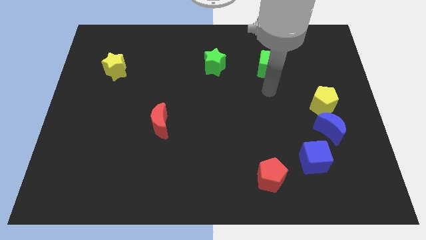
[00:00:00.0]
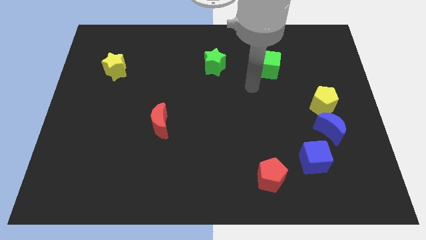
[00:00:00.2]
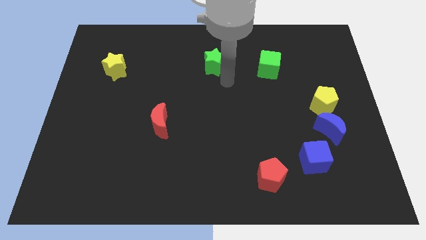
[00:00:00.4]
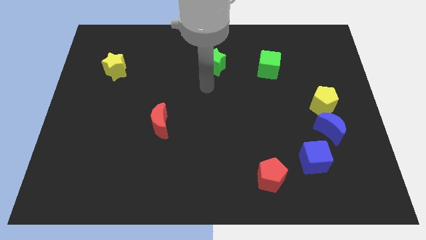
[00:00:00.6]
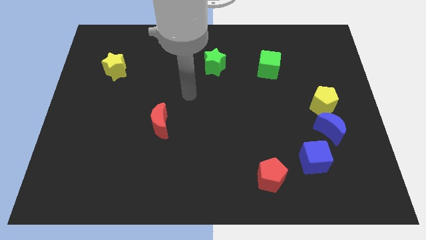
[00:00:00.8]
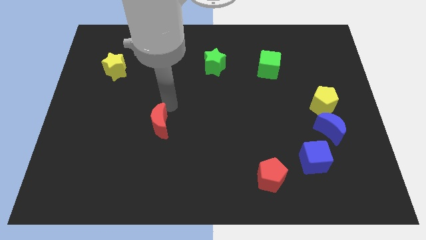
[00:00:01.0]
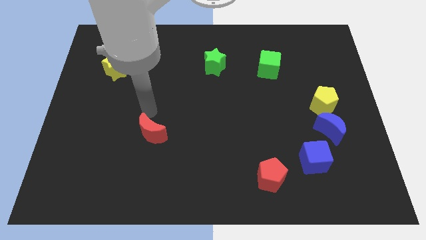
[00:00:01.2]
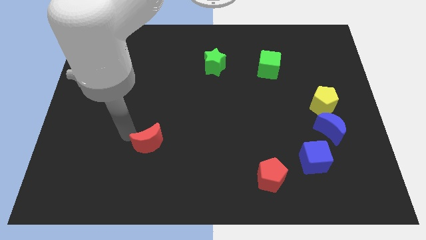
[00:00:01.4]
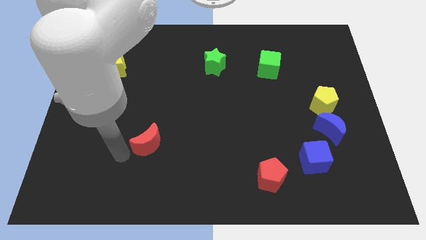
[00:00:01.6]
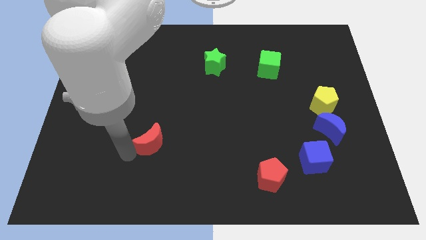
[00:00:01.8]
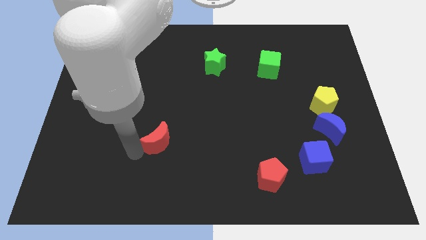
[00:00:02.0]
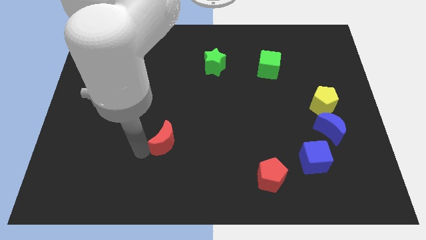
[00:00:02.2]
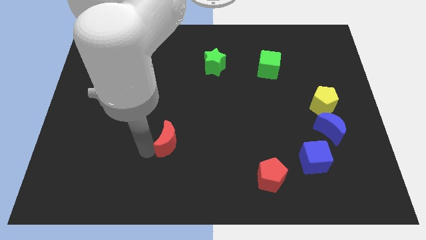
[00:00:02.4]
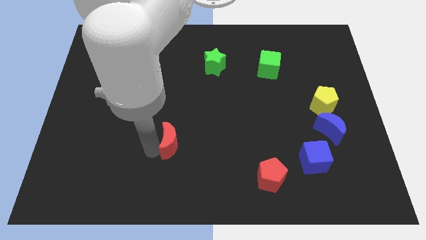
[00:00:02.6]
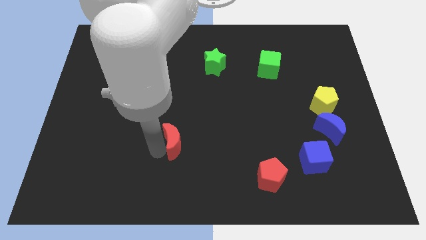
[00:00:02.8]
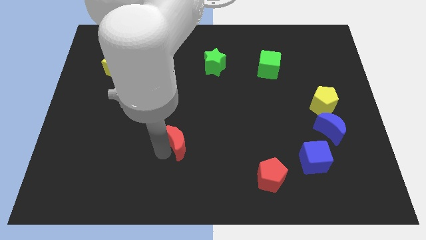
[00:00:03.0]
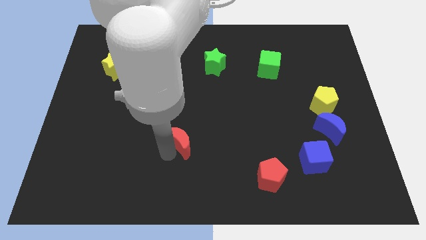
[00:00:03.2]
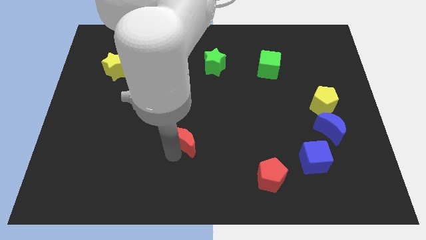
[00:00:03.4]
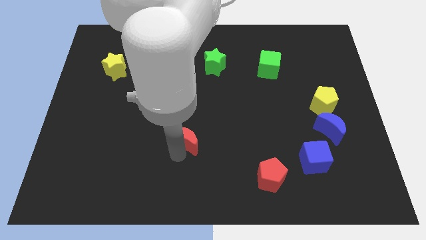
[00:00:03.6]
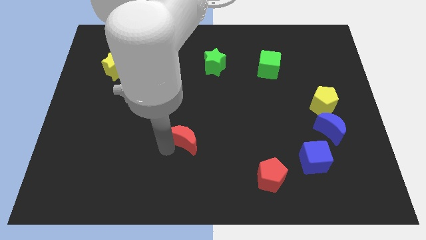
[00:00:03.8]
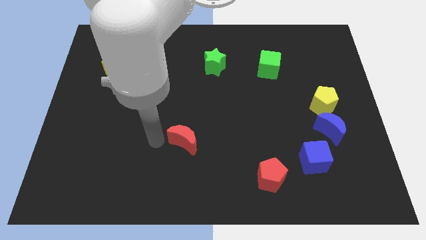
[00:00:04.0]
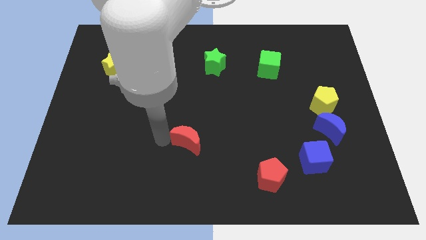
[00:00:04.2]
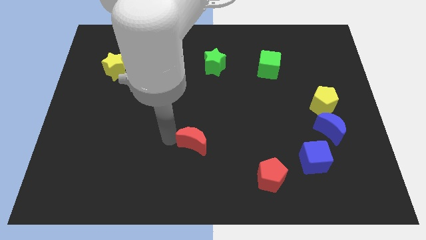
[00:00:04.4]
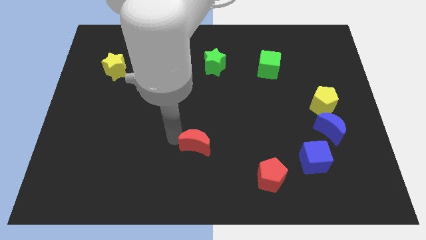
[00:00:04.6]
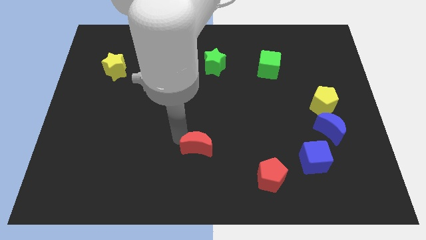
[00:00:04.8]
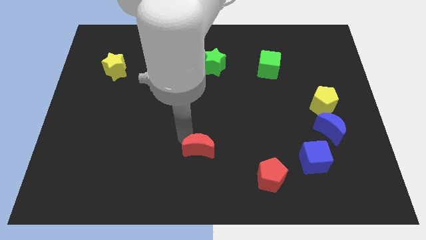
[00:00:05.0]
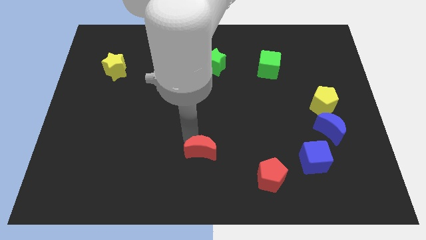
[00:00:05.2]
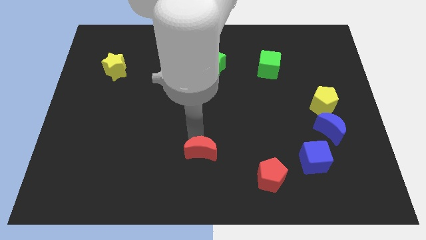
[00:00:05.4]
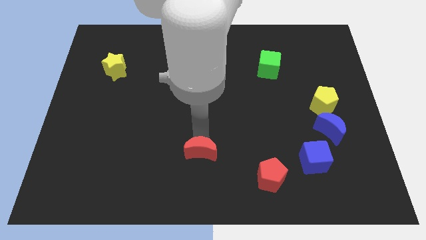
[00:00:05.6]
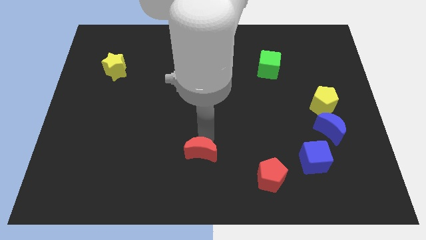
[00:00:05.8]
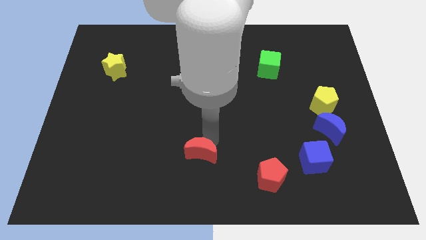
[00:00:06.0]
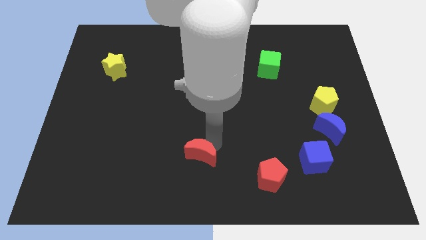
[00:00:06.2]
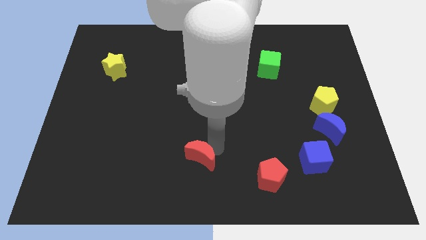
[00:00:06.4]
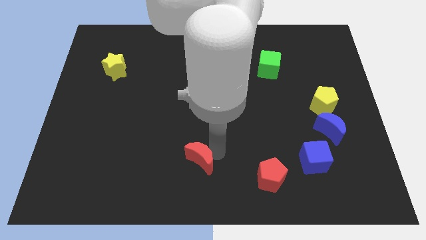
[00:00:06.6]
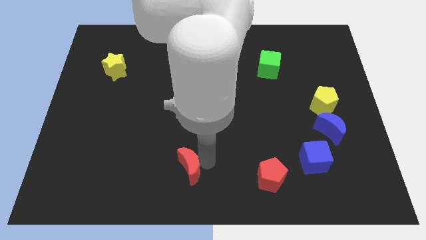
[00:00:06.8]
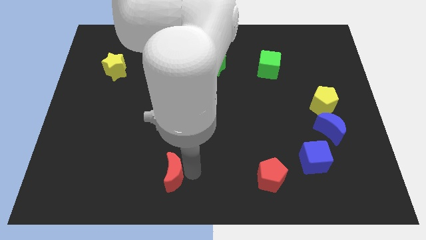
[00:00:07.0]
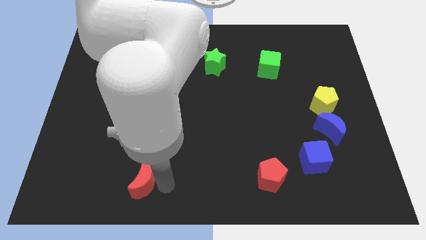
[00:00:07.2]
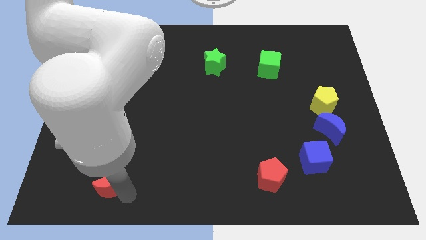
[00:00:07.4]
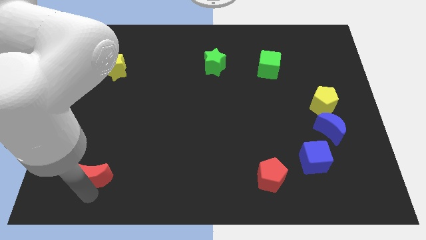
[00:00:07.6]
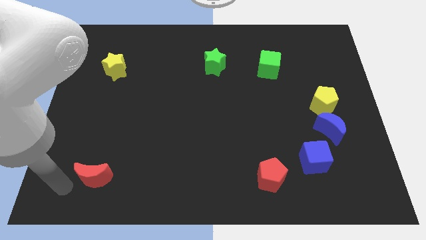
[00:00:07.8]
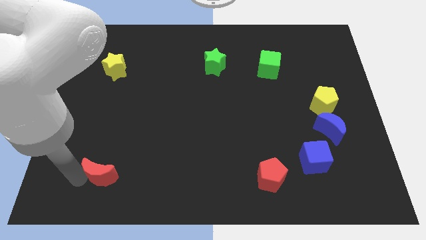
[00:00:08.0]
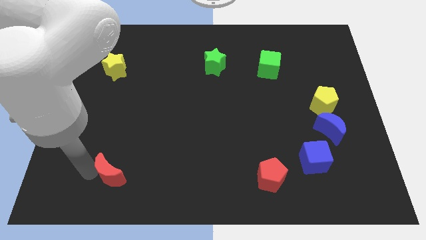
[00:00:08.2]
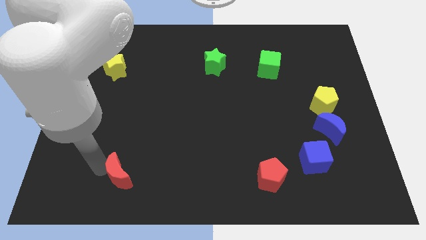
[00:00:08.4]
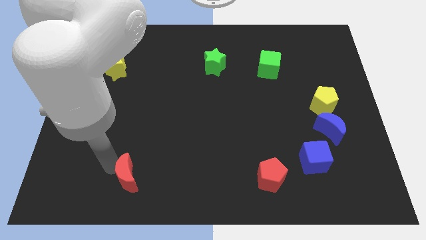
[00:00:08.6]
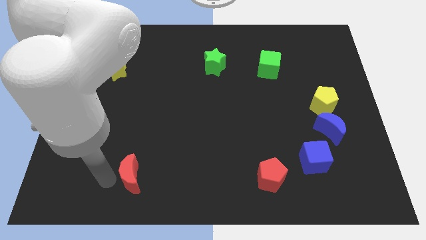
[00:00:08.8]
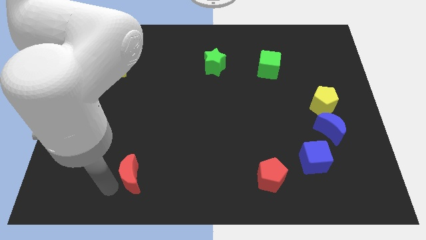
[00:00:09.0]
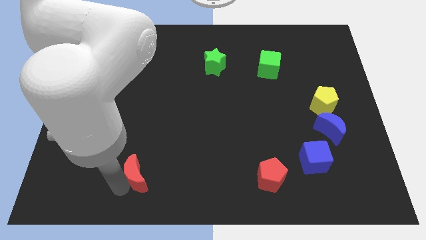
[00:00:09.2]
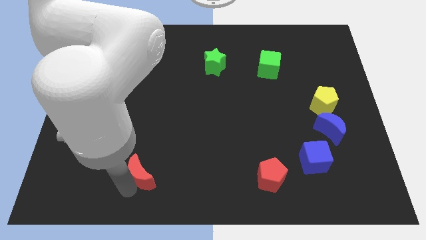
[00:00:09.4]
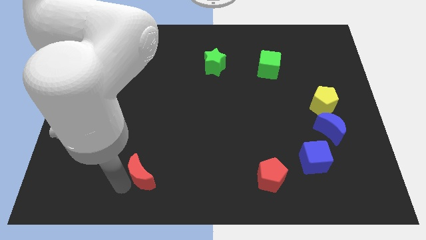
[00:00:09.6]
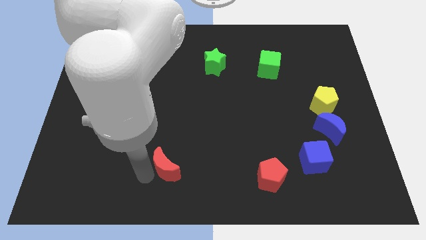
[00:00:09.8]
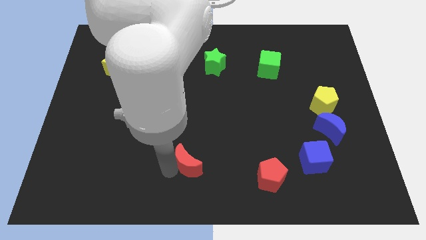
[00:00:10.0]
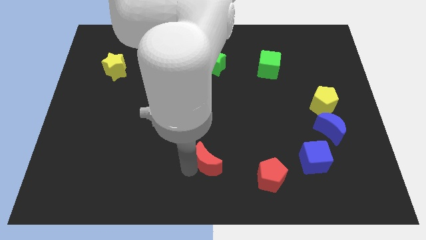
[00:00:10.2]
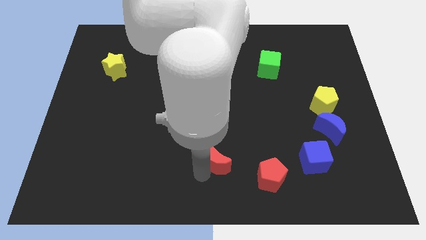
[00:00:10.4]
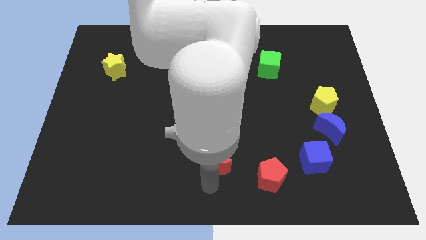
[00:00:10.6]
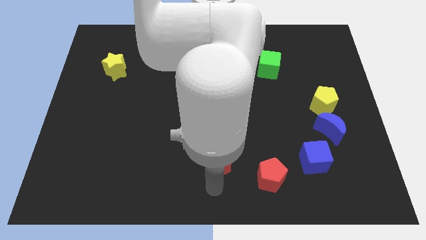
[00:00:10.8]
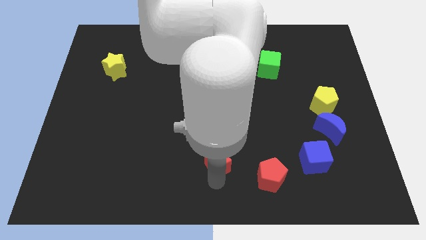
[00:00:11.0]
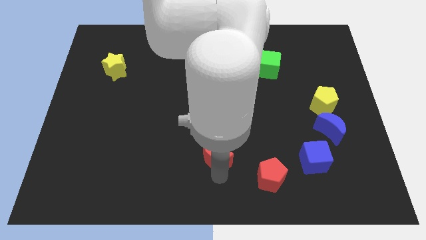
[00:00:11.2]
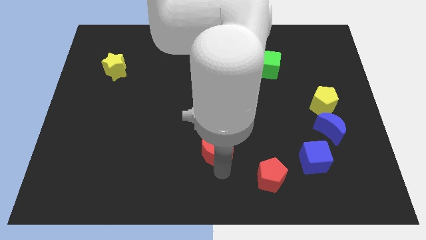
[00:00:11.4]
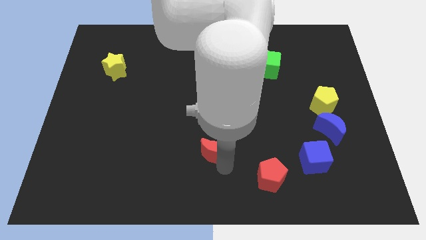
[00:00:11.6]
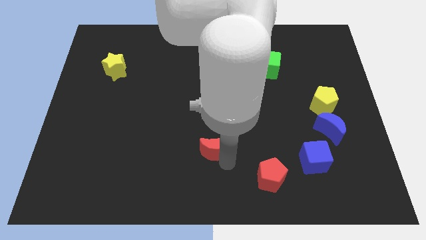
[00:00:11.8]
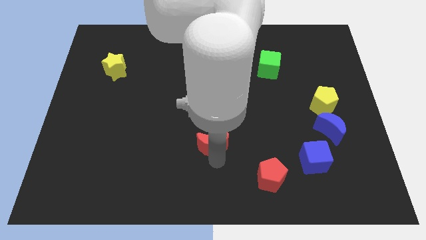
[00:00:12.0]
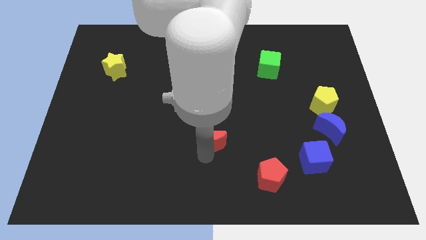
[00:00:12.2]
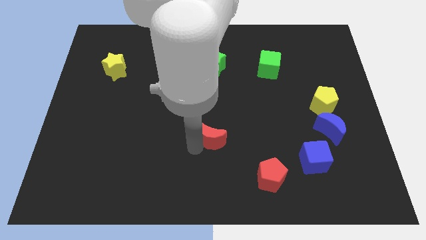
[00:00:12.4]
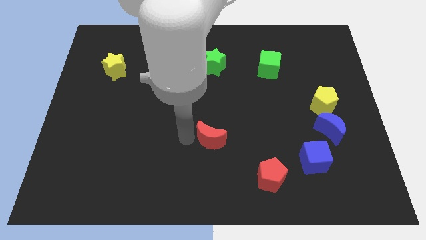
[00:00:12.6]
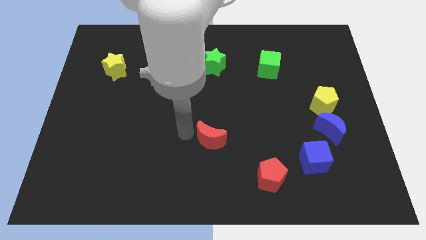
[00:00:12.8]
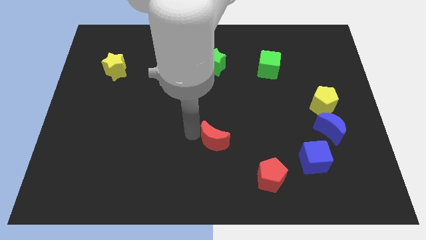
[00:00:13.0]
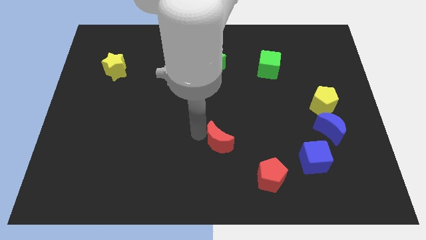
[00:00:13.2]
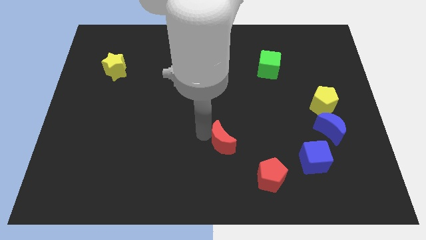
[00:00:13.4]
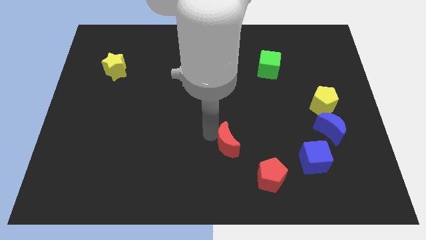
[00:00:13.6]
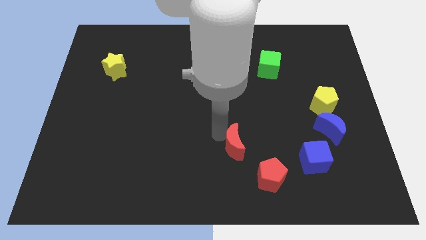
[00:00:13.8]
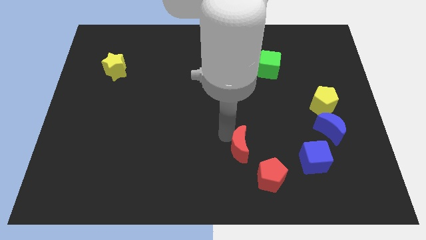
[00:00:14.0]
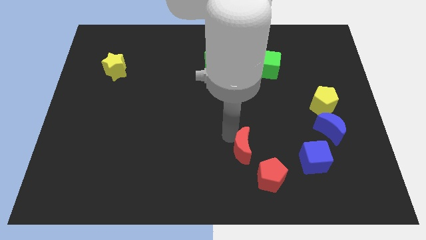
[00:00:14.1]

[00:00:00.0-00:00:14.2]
push the red moon just left of the blue cube
